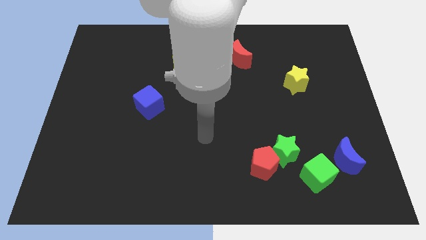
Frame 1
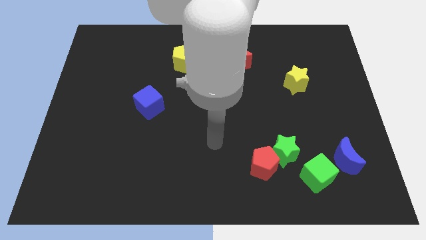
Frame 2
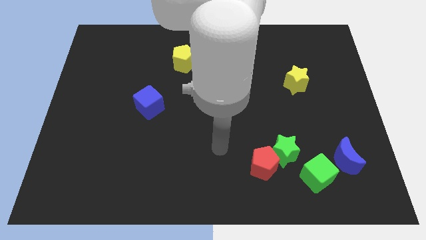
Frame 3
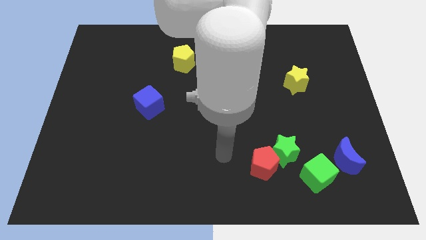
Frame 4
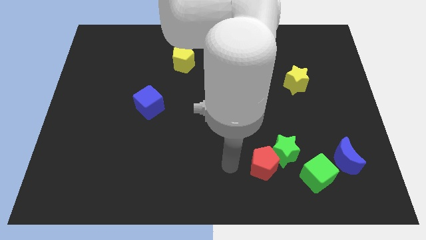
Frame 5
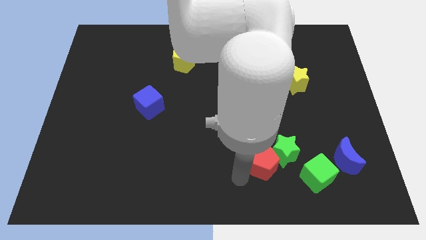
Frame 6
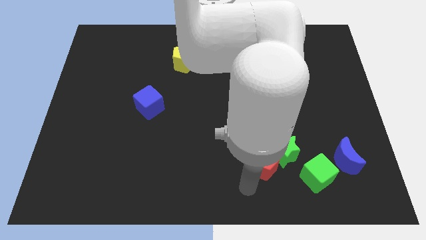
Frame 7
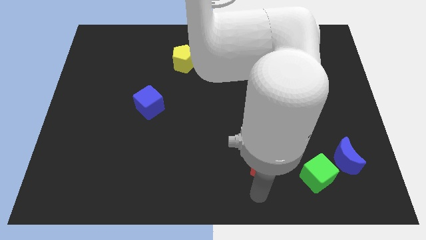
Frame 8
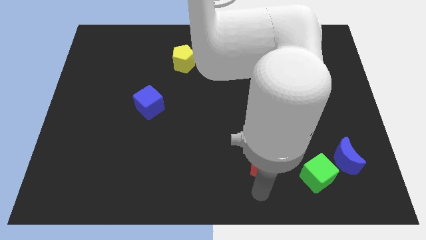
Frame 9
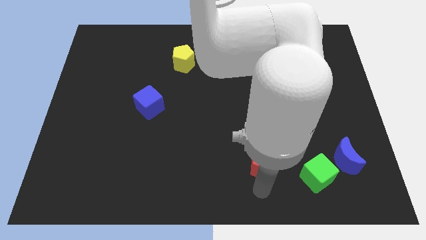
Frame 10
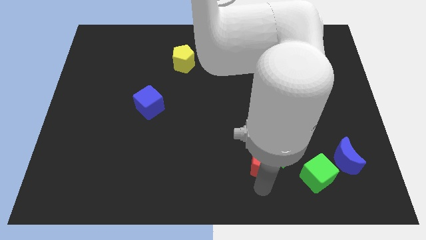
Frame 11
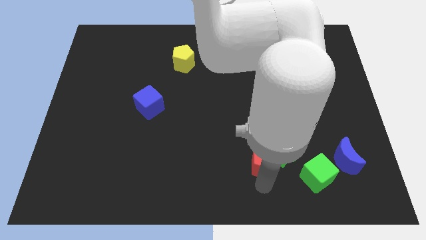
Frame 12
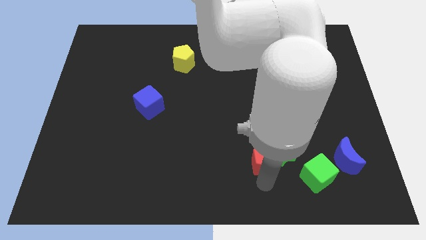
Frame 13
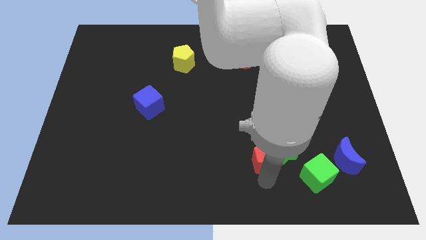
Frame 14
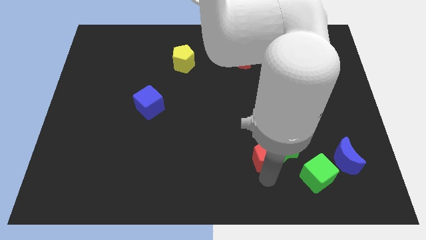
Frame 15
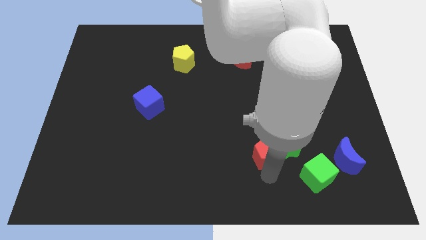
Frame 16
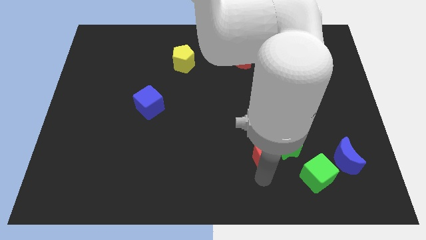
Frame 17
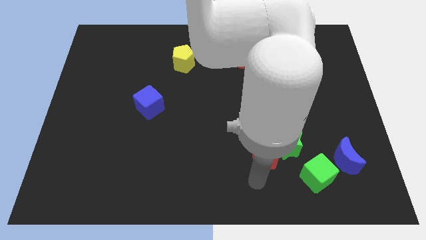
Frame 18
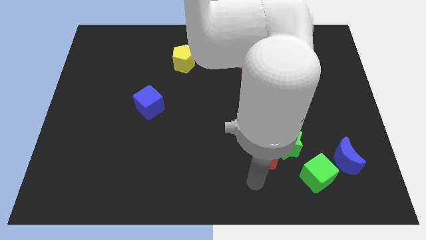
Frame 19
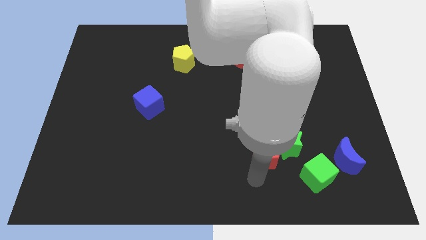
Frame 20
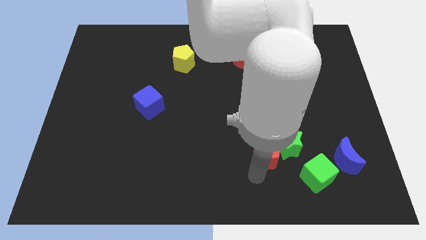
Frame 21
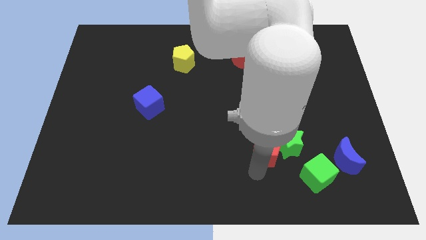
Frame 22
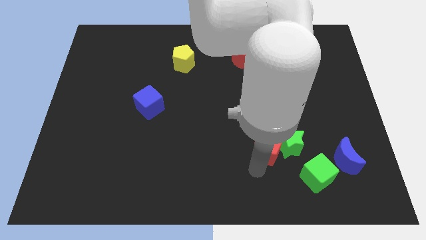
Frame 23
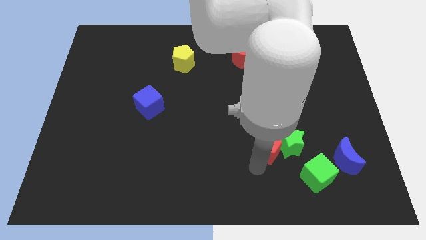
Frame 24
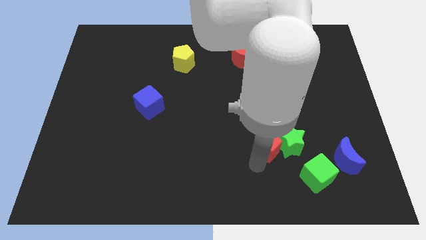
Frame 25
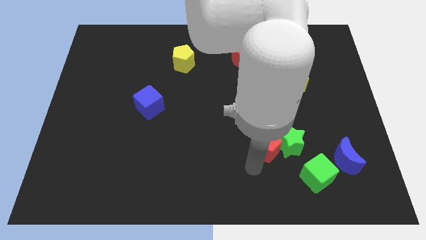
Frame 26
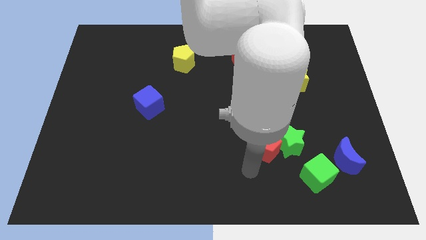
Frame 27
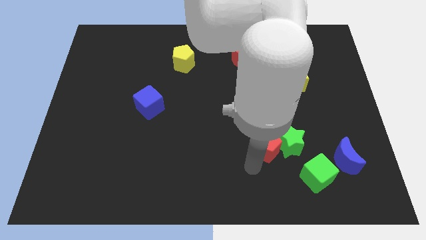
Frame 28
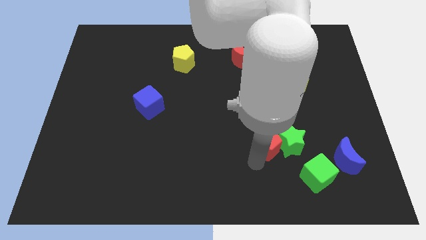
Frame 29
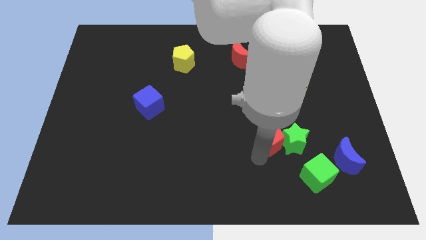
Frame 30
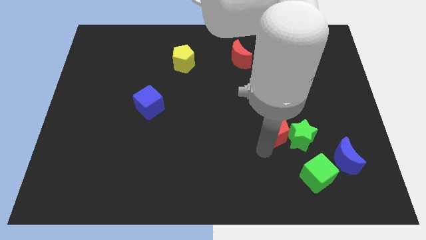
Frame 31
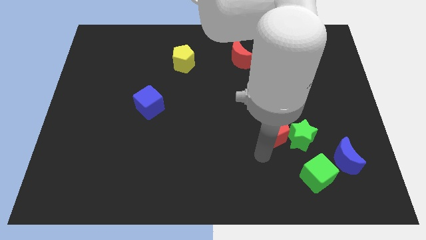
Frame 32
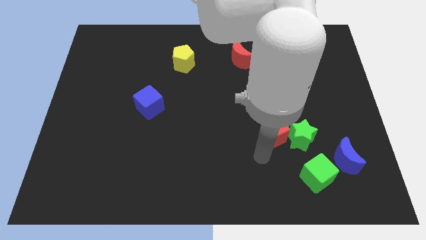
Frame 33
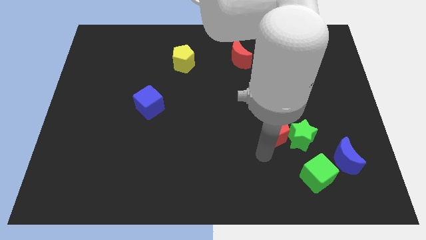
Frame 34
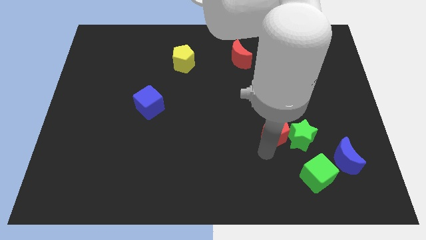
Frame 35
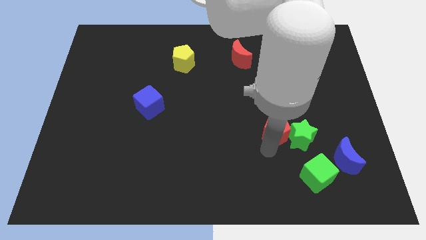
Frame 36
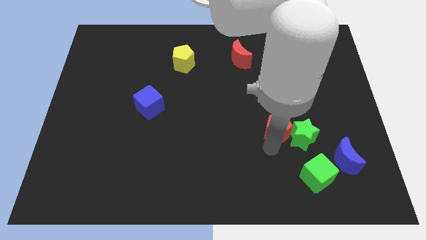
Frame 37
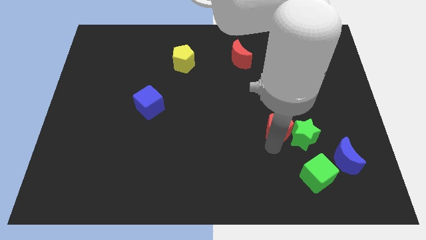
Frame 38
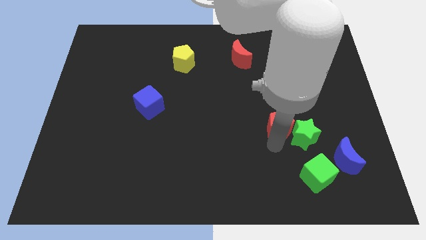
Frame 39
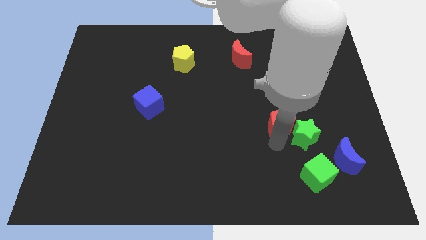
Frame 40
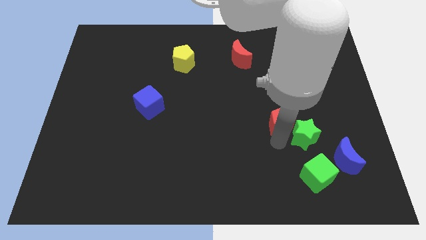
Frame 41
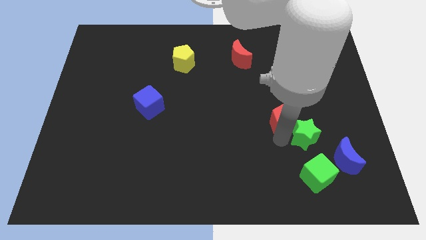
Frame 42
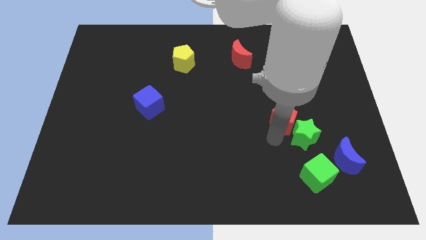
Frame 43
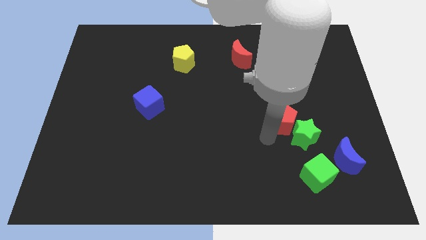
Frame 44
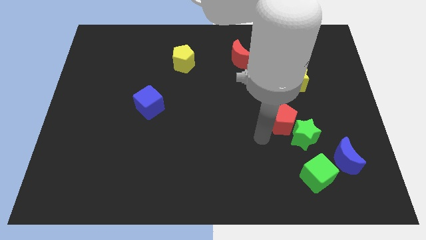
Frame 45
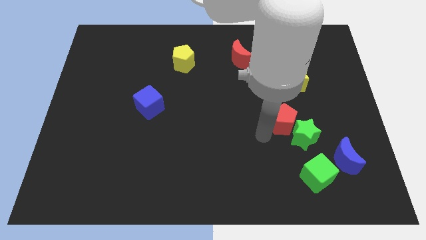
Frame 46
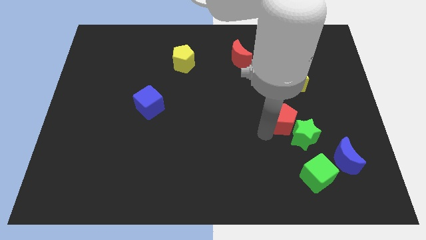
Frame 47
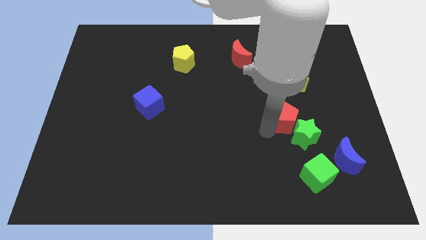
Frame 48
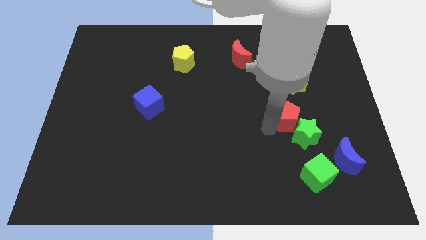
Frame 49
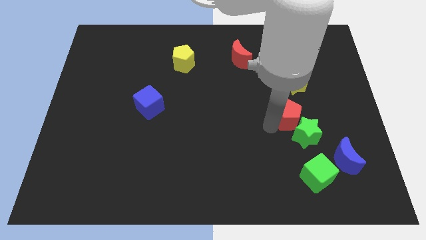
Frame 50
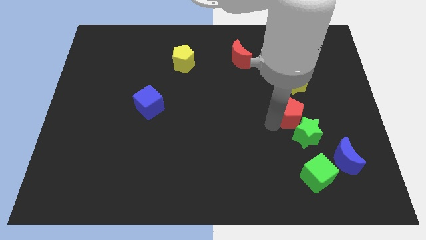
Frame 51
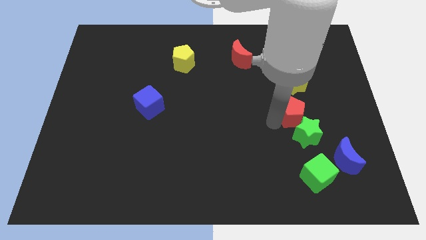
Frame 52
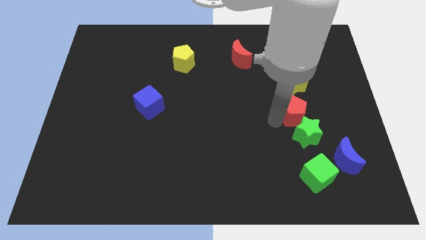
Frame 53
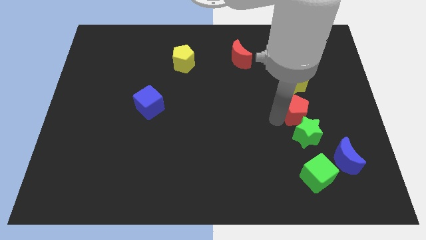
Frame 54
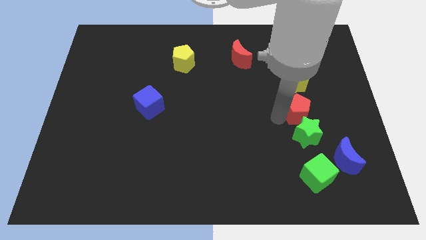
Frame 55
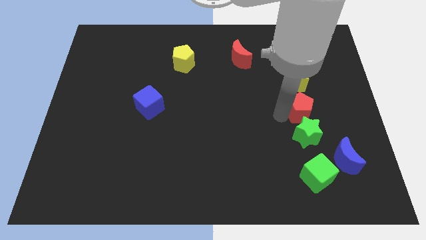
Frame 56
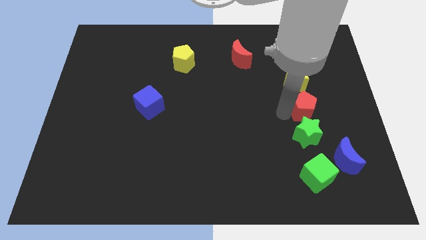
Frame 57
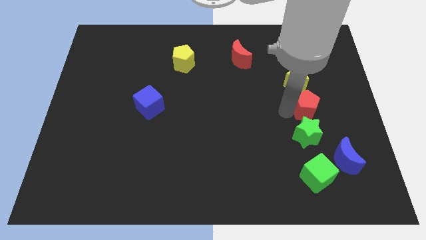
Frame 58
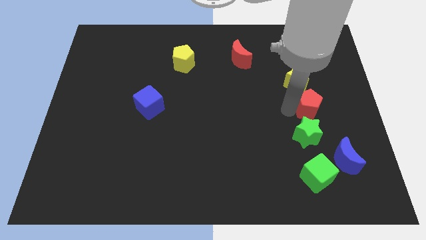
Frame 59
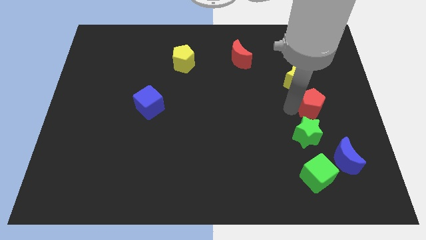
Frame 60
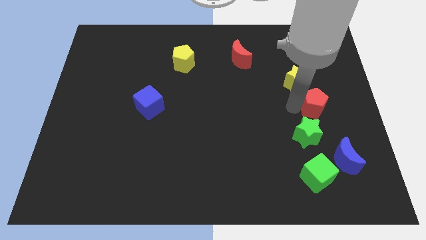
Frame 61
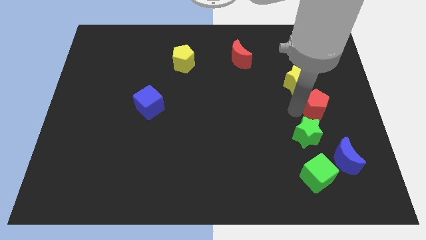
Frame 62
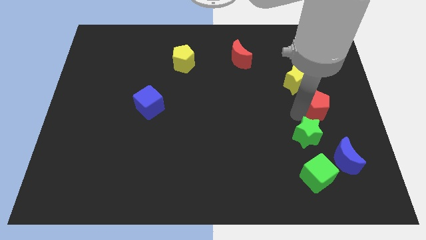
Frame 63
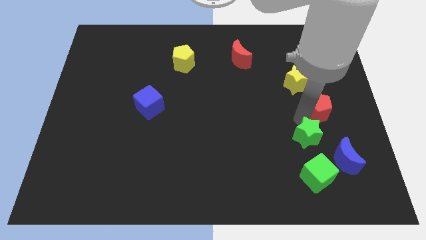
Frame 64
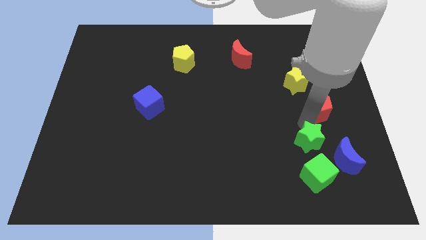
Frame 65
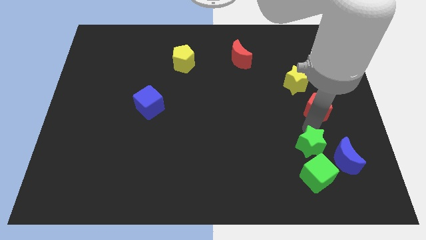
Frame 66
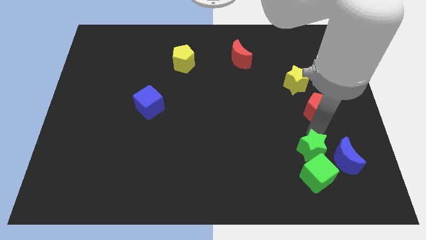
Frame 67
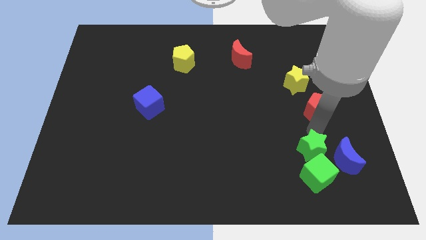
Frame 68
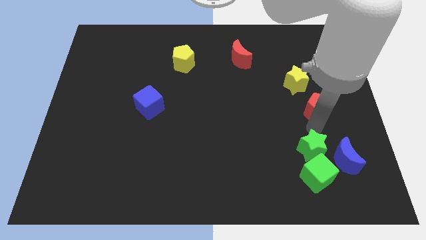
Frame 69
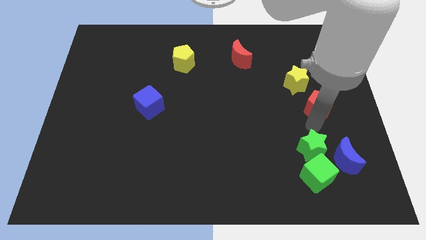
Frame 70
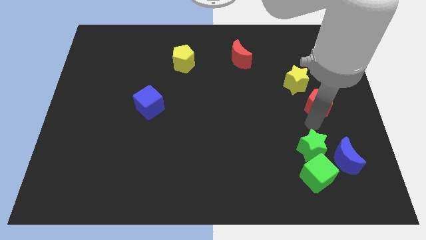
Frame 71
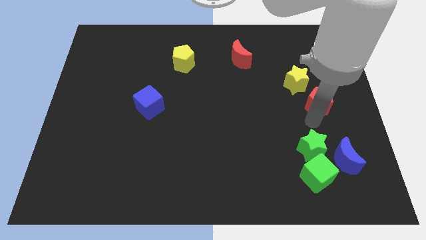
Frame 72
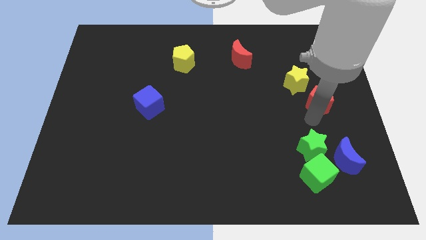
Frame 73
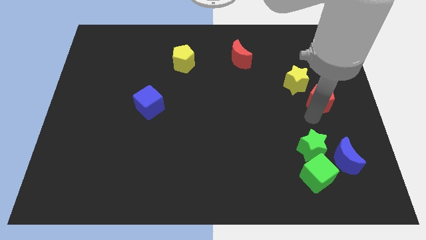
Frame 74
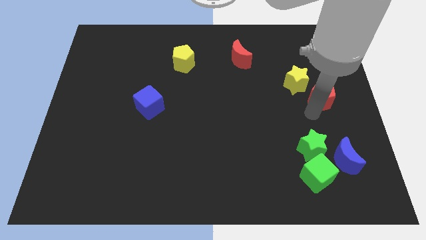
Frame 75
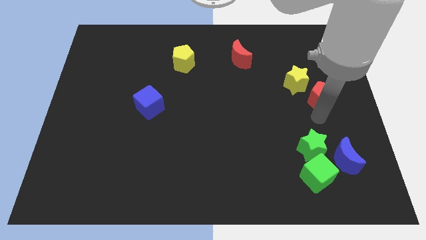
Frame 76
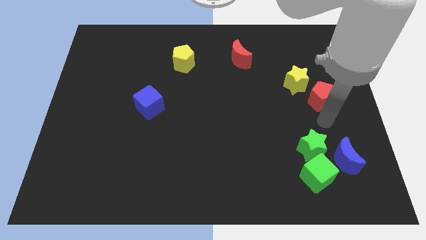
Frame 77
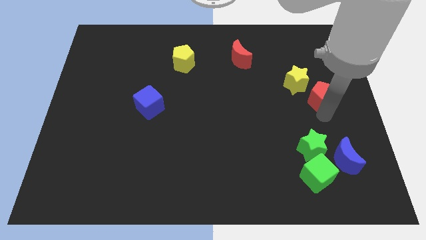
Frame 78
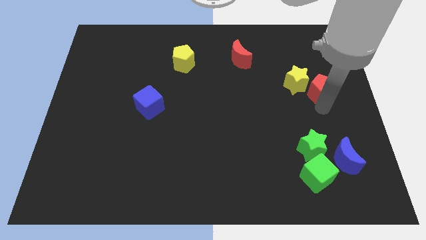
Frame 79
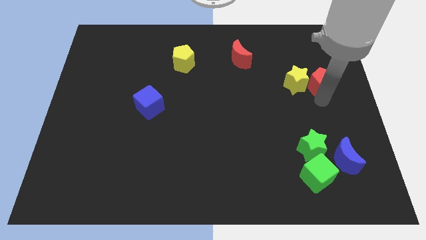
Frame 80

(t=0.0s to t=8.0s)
push the red pentagon to the top right side of the yellow star
